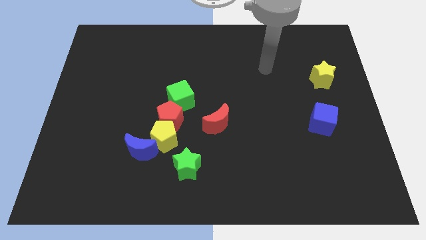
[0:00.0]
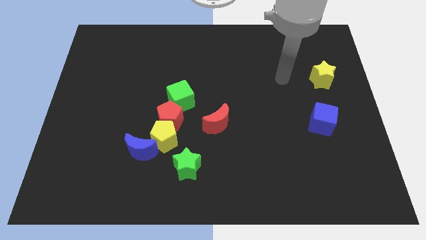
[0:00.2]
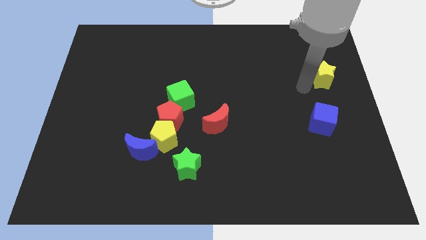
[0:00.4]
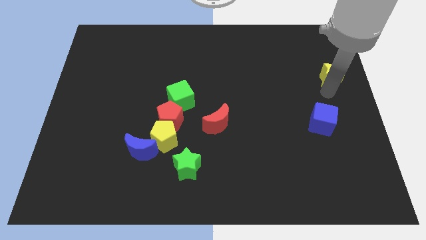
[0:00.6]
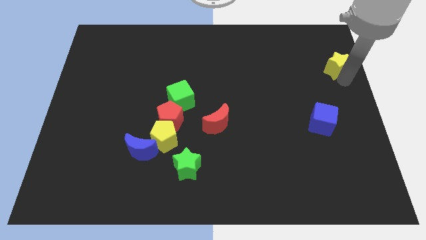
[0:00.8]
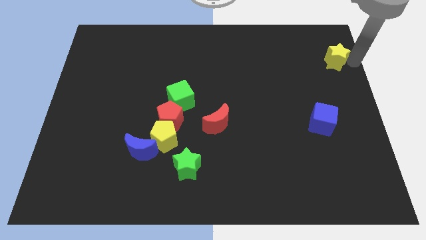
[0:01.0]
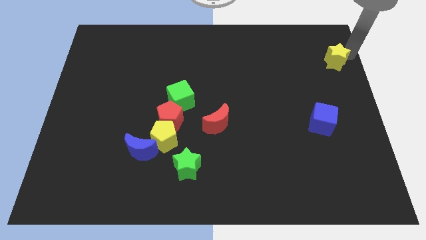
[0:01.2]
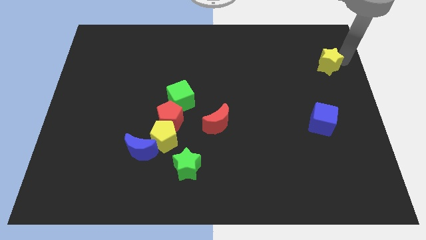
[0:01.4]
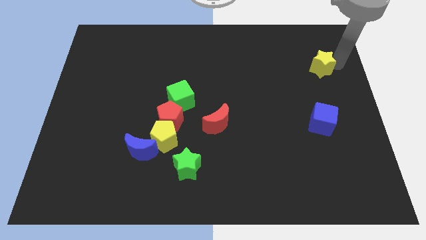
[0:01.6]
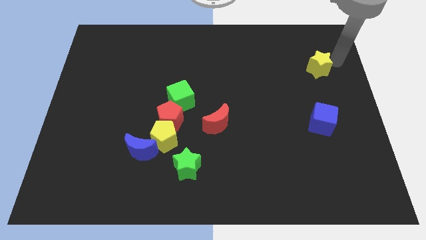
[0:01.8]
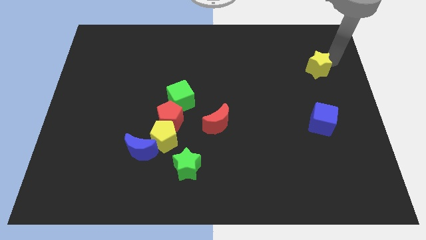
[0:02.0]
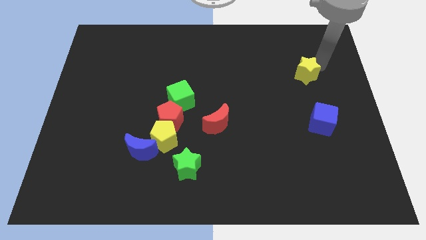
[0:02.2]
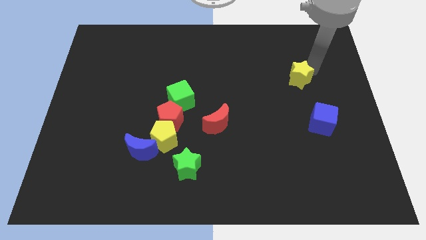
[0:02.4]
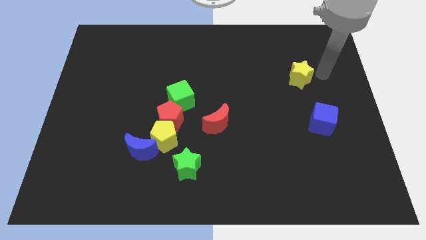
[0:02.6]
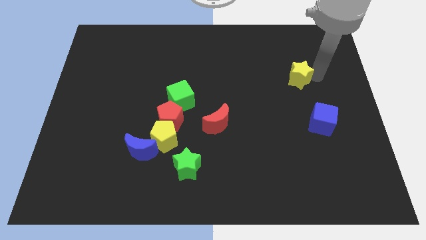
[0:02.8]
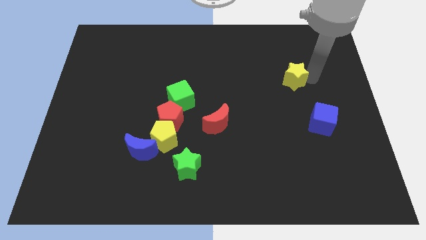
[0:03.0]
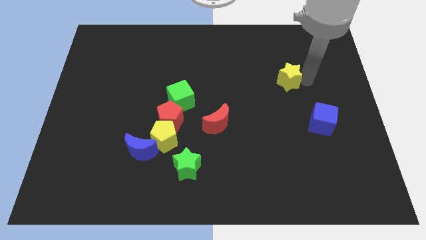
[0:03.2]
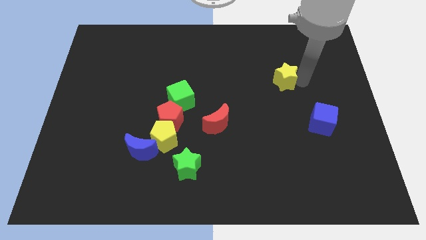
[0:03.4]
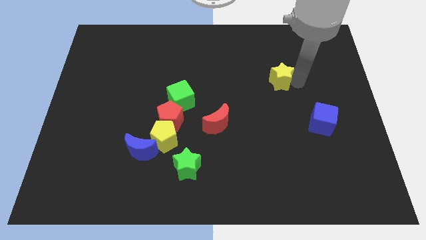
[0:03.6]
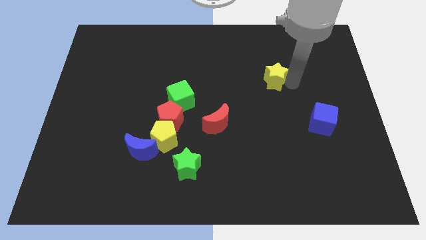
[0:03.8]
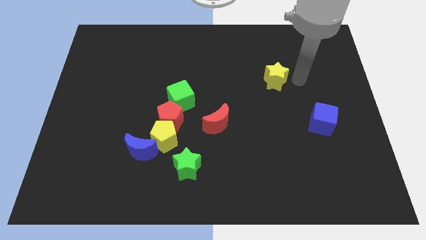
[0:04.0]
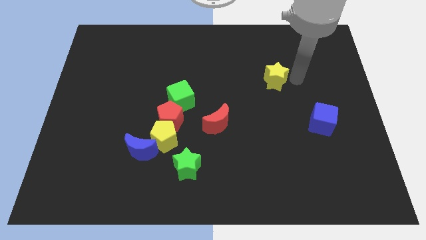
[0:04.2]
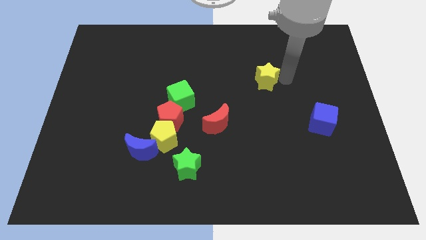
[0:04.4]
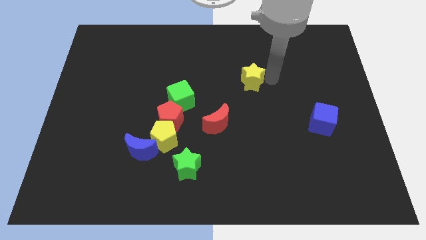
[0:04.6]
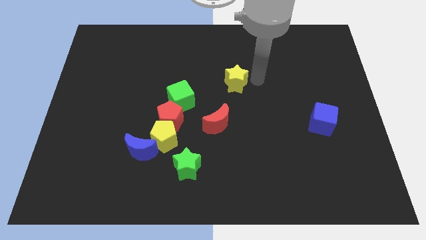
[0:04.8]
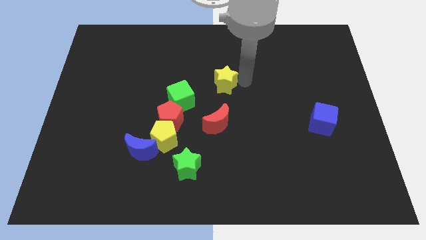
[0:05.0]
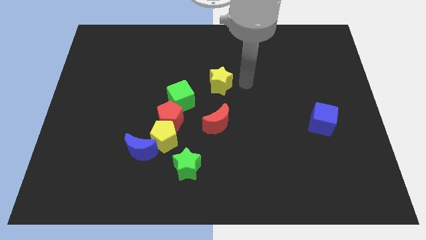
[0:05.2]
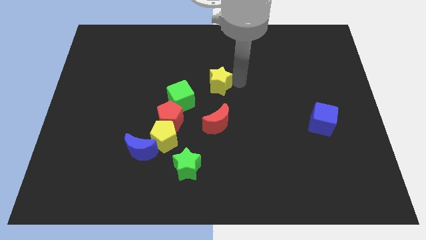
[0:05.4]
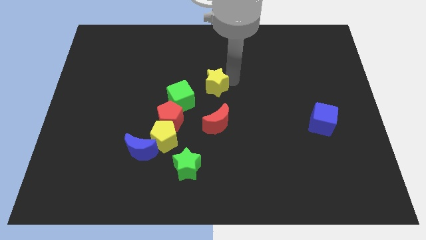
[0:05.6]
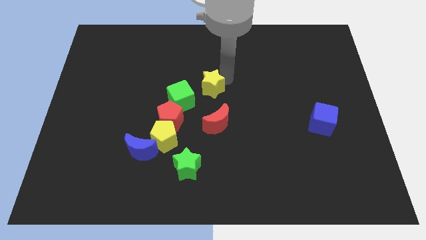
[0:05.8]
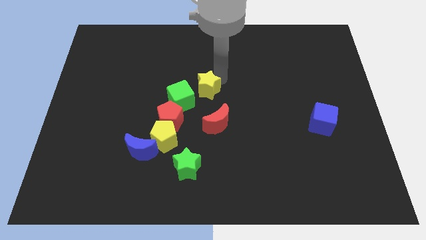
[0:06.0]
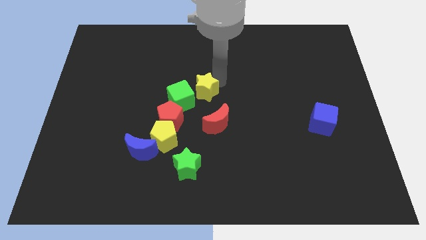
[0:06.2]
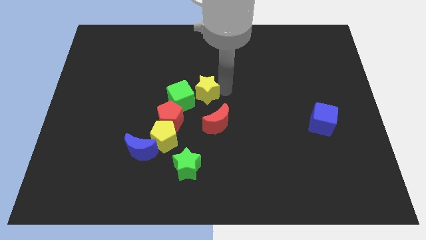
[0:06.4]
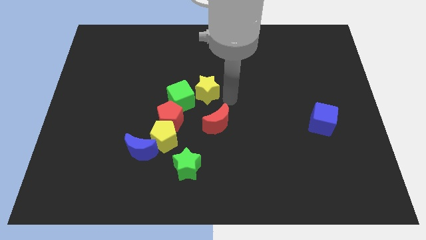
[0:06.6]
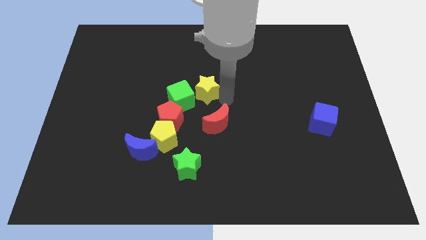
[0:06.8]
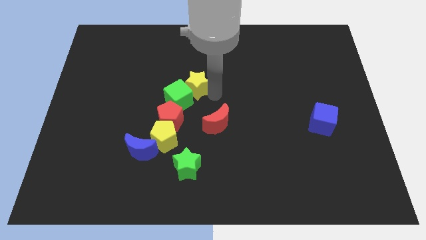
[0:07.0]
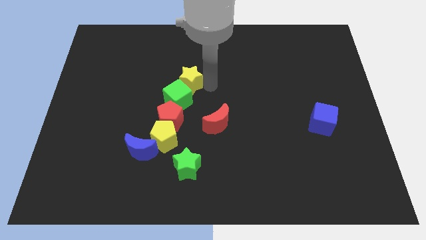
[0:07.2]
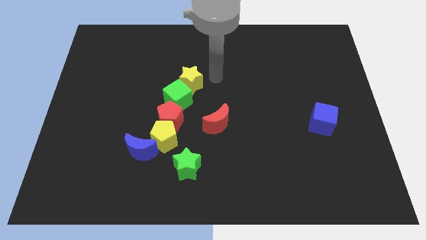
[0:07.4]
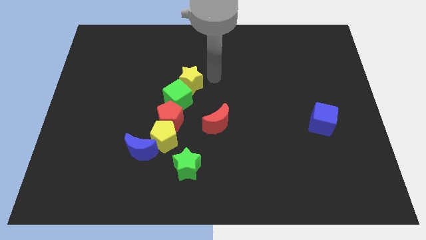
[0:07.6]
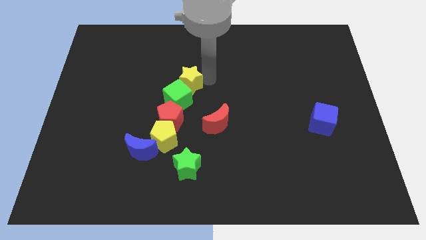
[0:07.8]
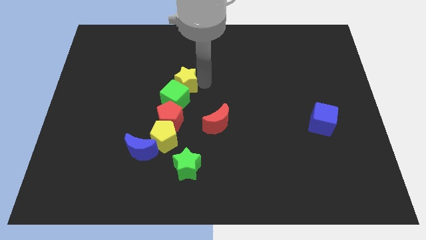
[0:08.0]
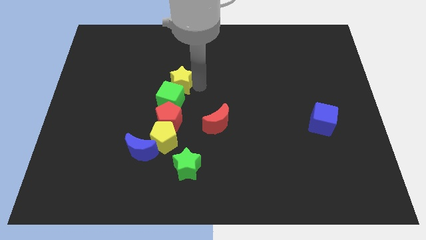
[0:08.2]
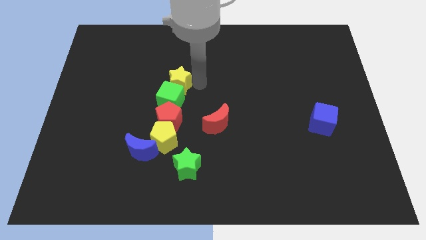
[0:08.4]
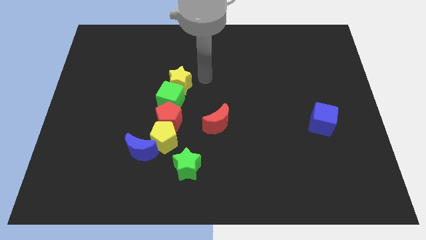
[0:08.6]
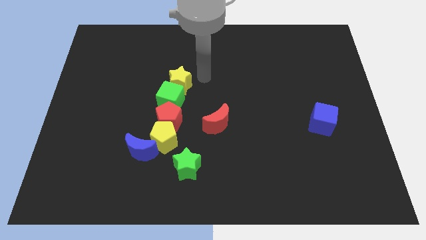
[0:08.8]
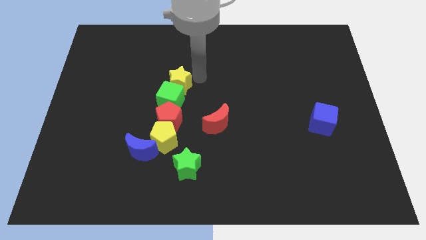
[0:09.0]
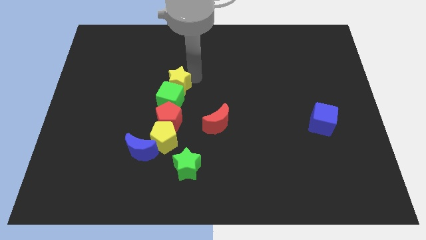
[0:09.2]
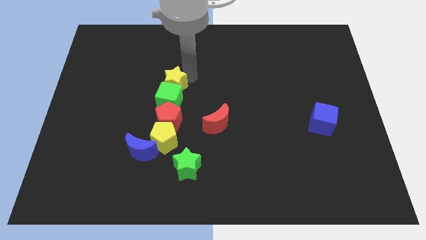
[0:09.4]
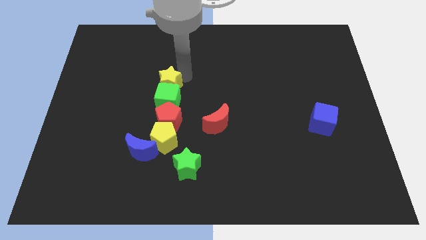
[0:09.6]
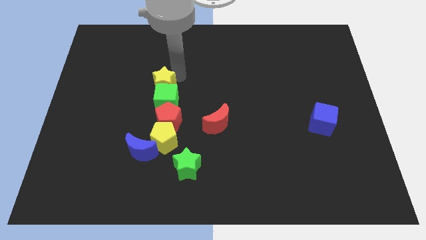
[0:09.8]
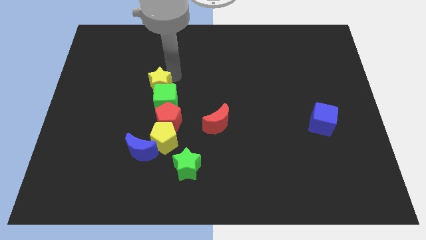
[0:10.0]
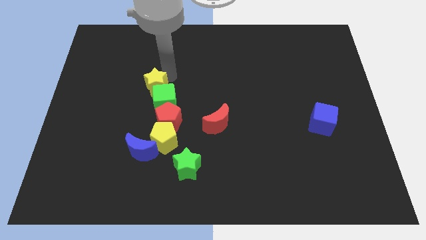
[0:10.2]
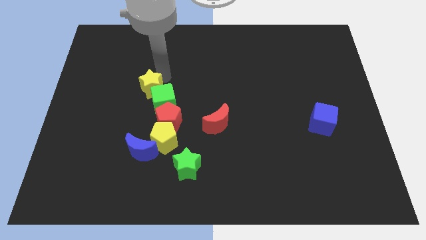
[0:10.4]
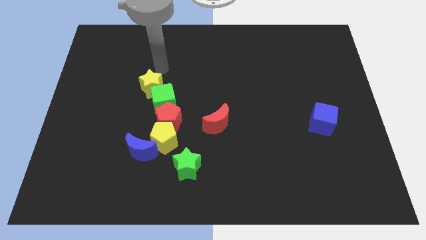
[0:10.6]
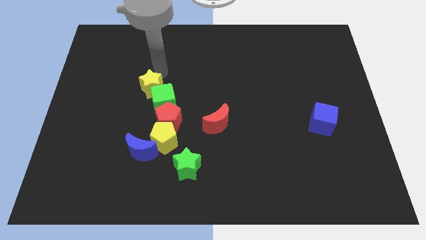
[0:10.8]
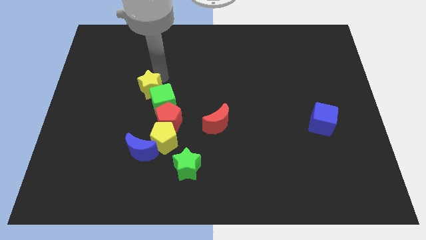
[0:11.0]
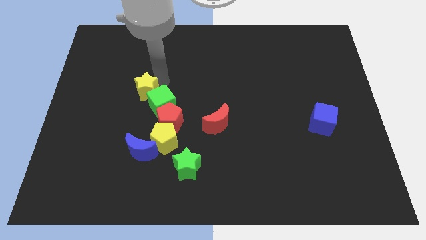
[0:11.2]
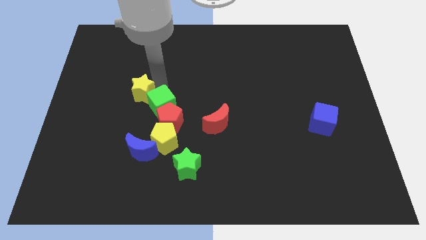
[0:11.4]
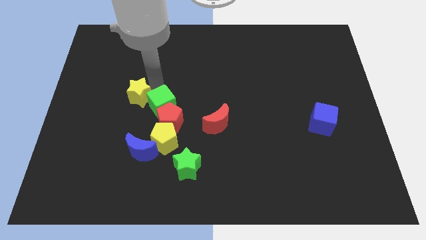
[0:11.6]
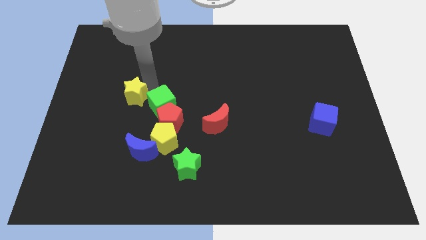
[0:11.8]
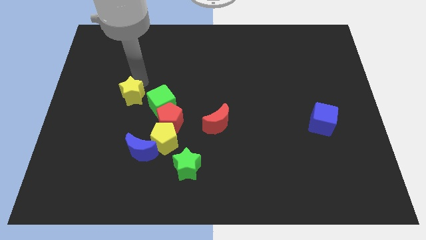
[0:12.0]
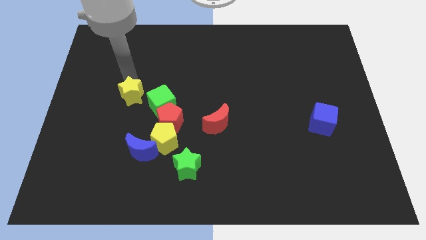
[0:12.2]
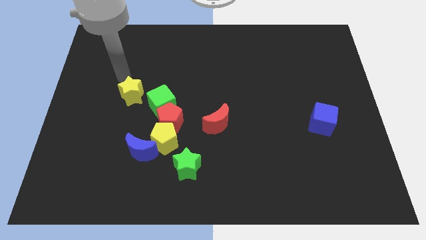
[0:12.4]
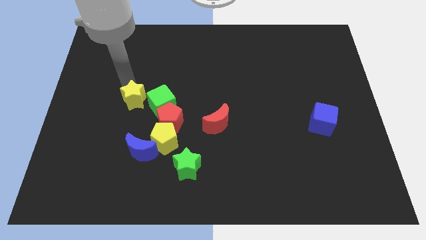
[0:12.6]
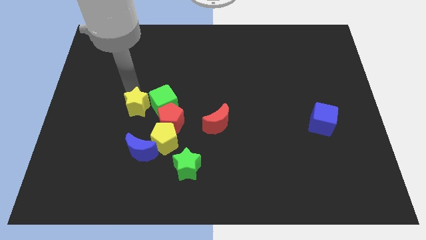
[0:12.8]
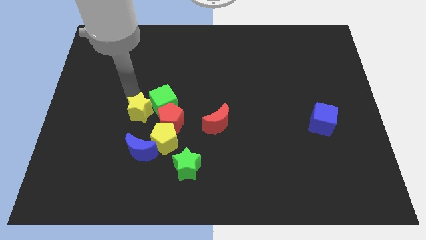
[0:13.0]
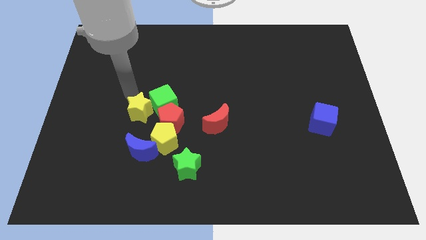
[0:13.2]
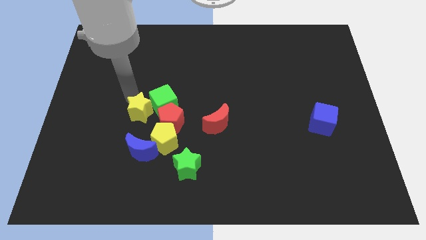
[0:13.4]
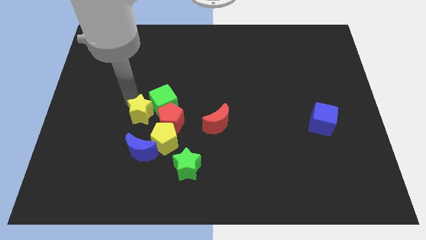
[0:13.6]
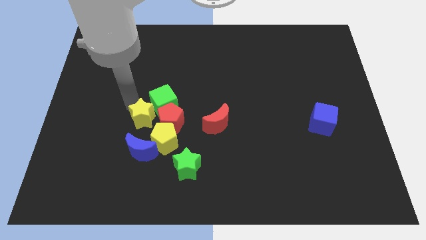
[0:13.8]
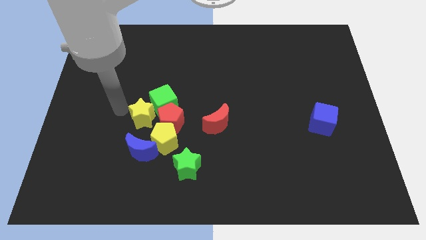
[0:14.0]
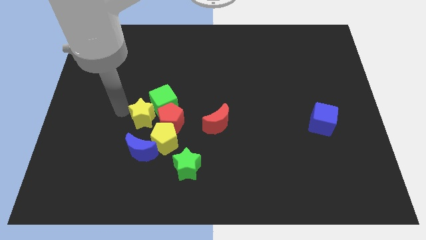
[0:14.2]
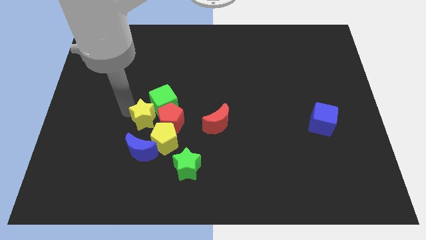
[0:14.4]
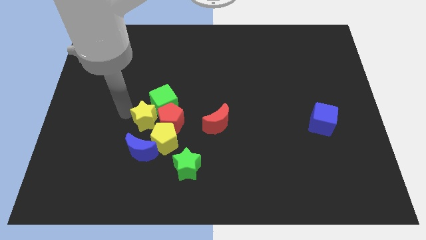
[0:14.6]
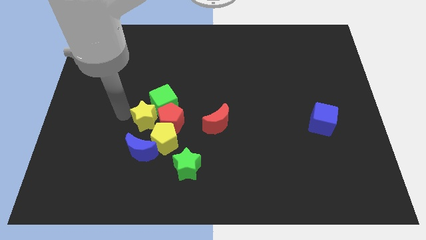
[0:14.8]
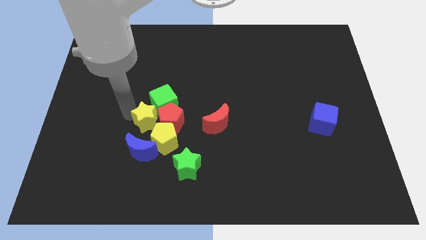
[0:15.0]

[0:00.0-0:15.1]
move the yellow star just left of the red moon
